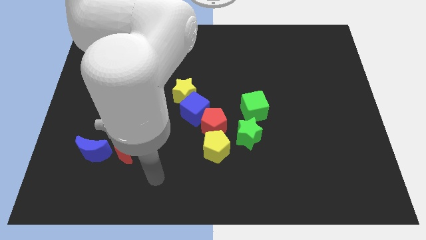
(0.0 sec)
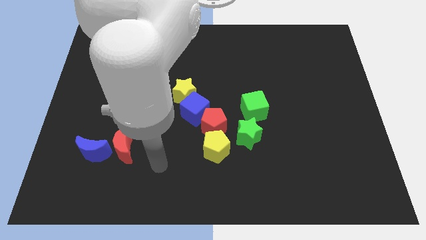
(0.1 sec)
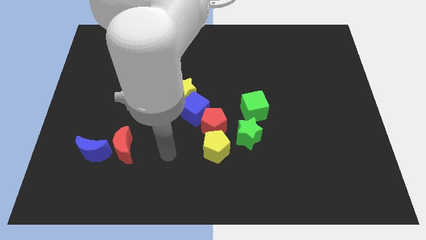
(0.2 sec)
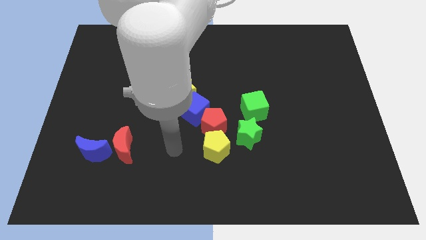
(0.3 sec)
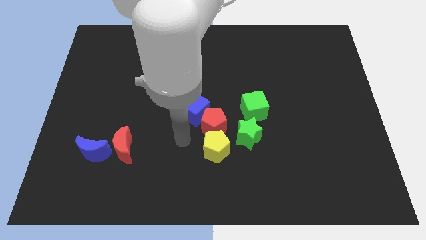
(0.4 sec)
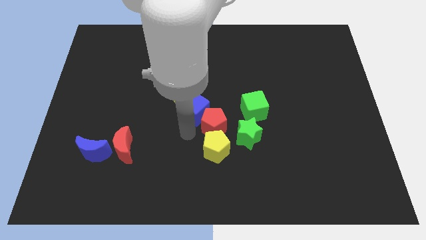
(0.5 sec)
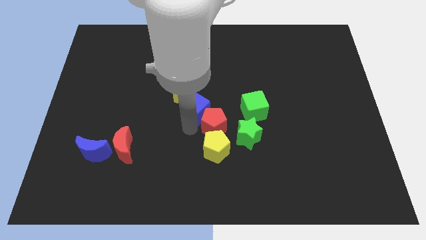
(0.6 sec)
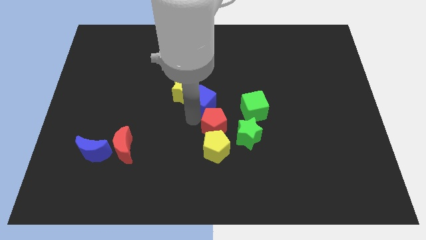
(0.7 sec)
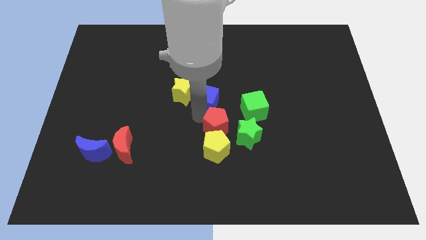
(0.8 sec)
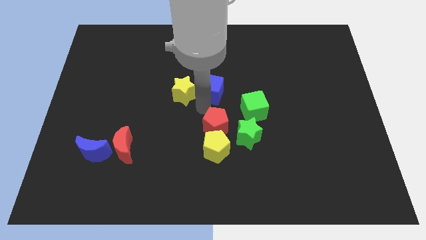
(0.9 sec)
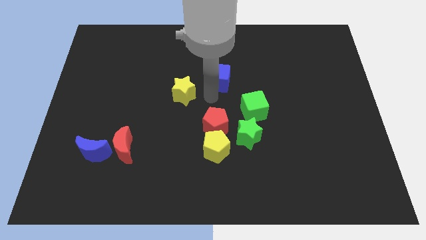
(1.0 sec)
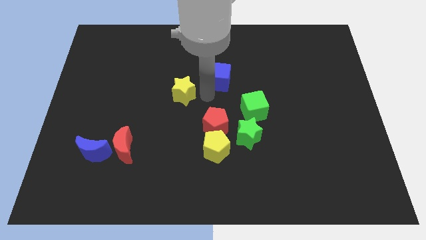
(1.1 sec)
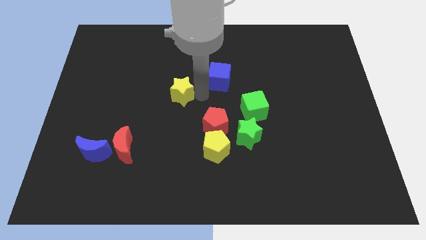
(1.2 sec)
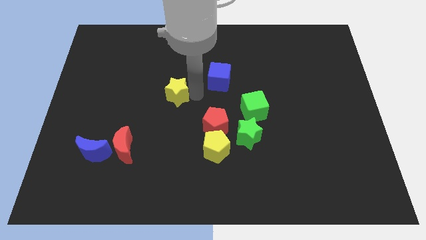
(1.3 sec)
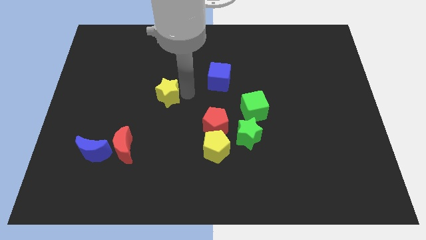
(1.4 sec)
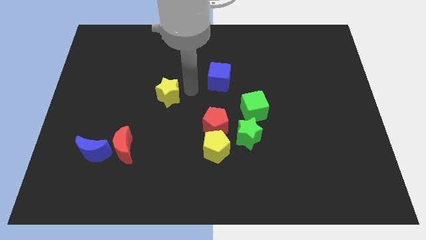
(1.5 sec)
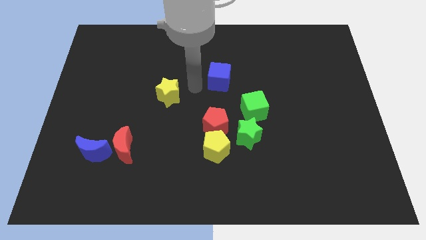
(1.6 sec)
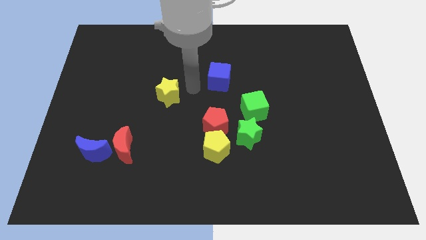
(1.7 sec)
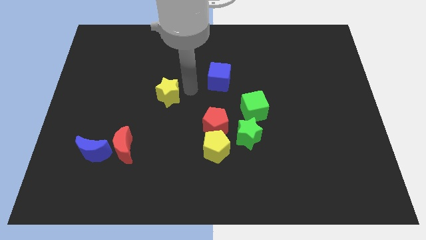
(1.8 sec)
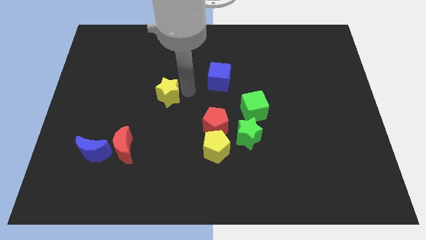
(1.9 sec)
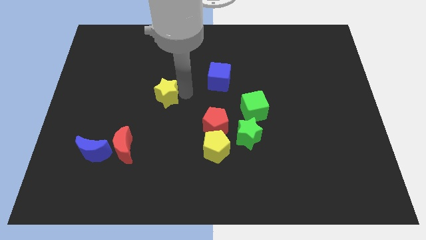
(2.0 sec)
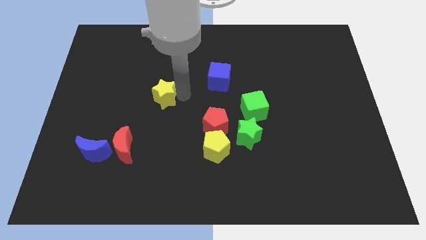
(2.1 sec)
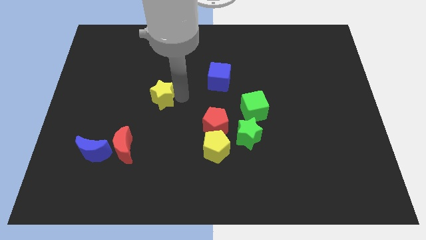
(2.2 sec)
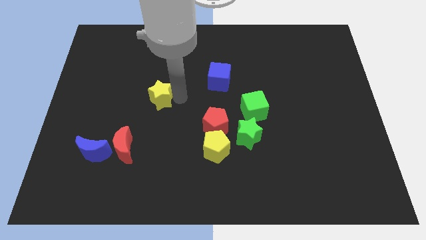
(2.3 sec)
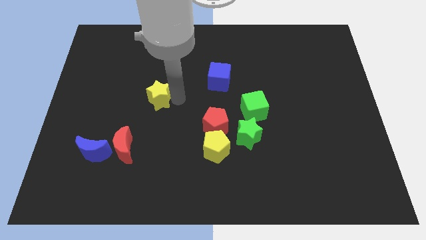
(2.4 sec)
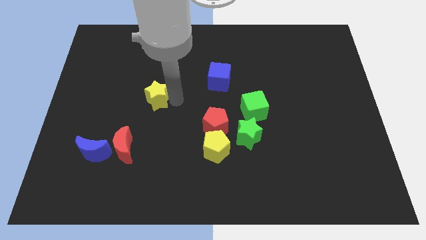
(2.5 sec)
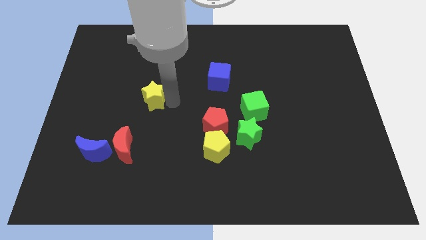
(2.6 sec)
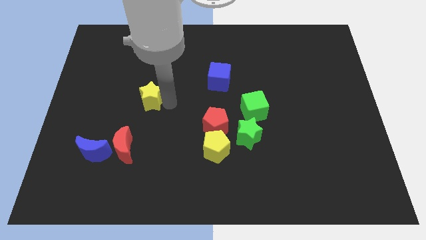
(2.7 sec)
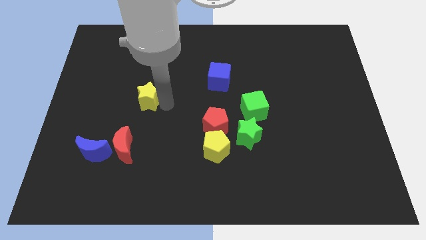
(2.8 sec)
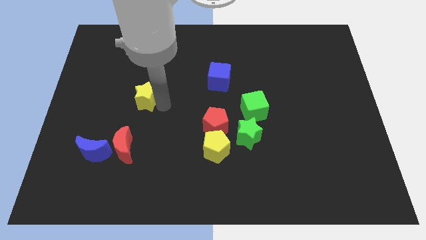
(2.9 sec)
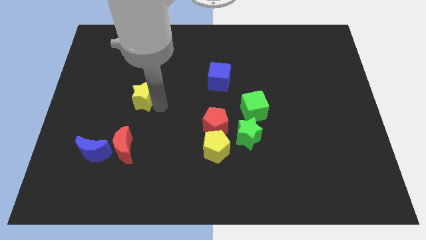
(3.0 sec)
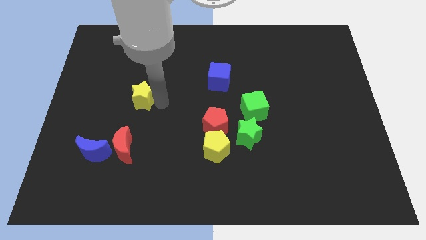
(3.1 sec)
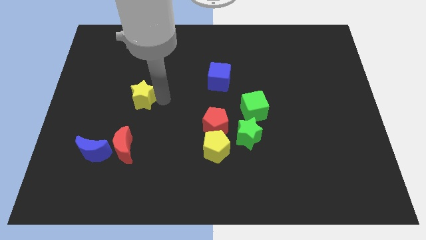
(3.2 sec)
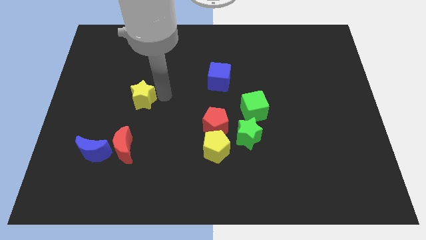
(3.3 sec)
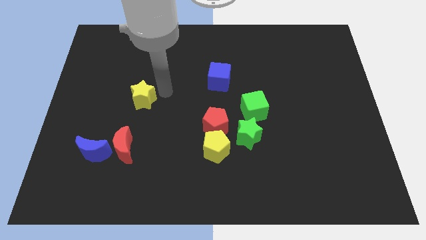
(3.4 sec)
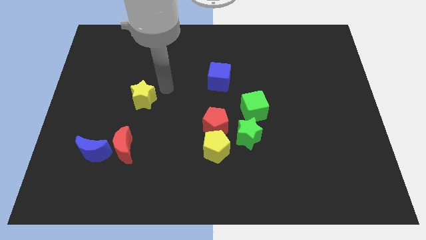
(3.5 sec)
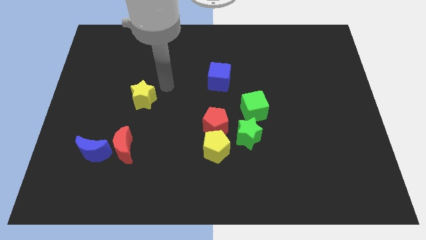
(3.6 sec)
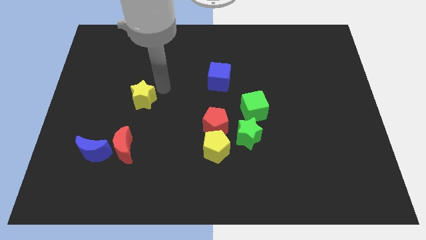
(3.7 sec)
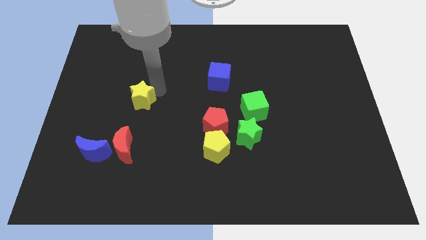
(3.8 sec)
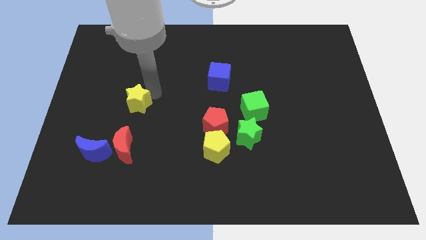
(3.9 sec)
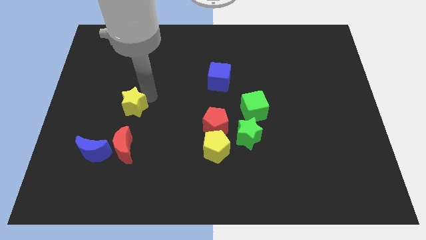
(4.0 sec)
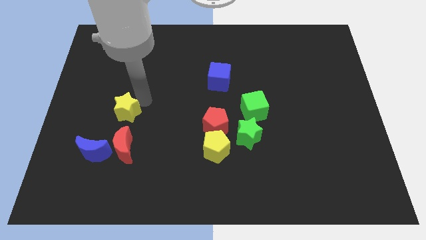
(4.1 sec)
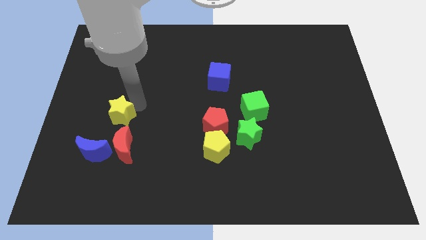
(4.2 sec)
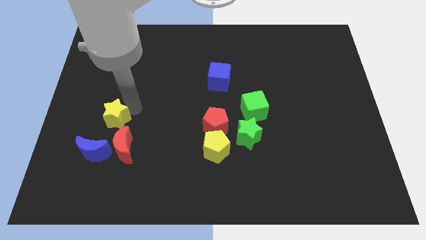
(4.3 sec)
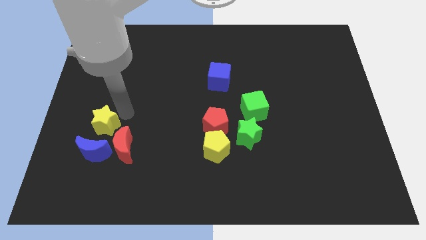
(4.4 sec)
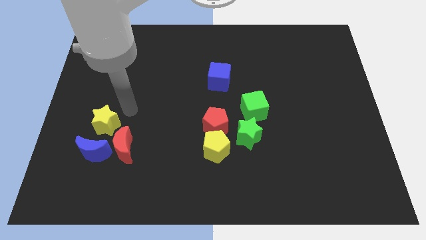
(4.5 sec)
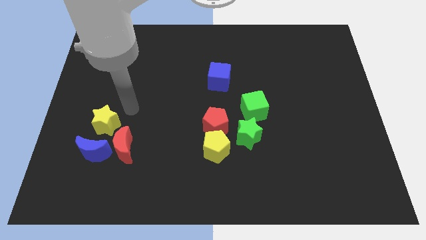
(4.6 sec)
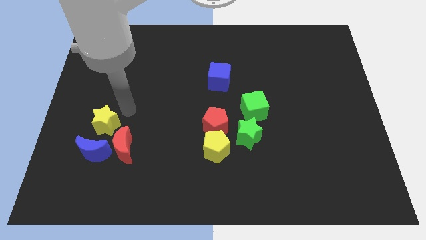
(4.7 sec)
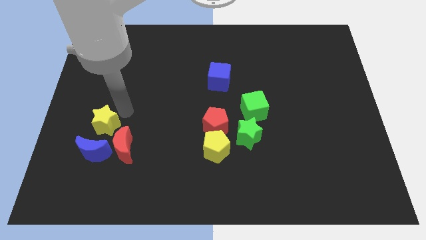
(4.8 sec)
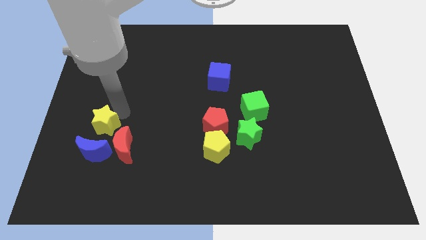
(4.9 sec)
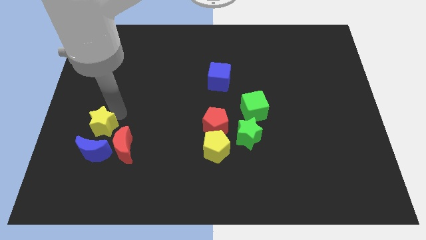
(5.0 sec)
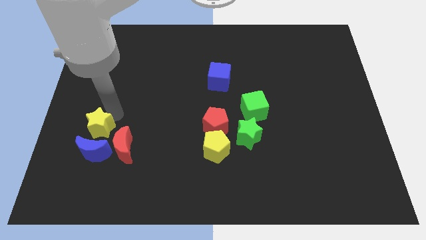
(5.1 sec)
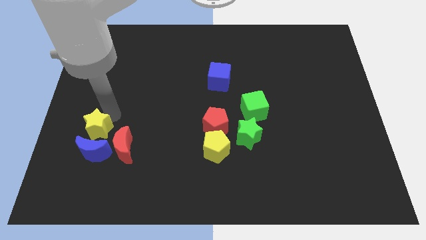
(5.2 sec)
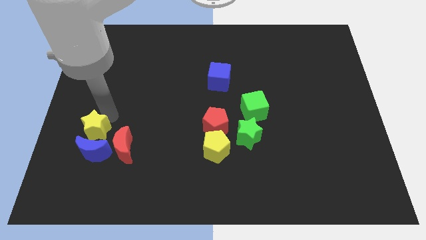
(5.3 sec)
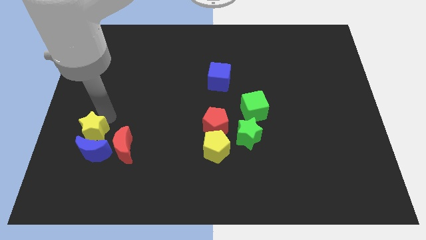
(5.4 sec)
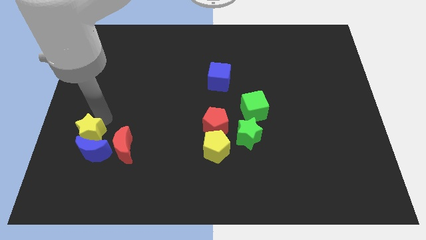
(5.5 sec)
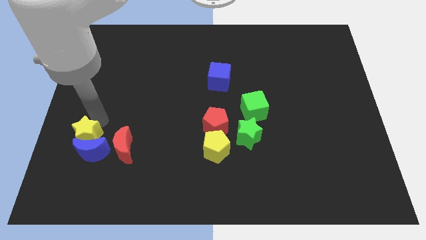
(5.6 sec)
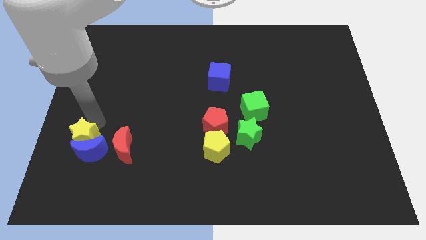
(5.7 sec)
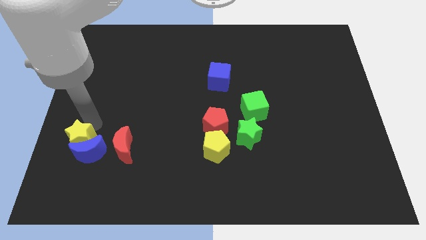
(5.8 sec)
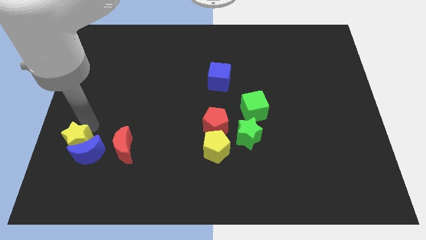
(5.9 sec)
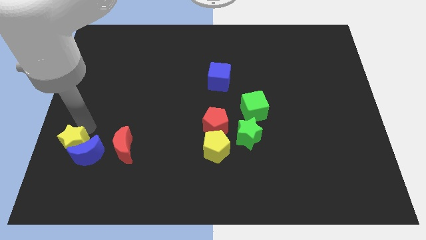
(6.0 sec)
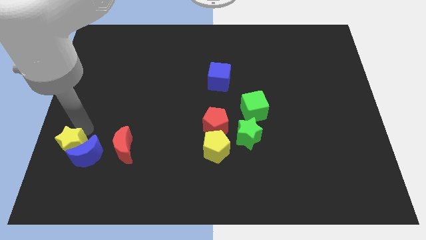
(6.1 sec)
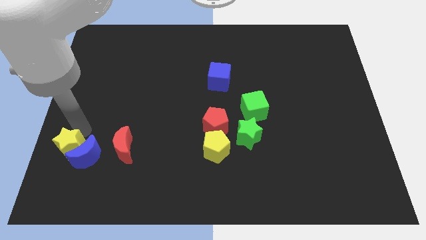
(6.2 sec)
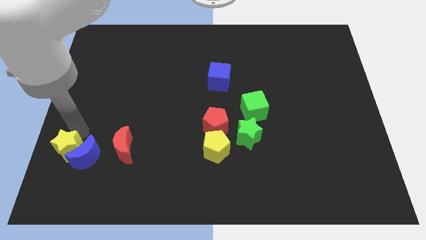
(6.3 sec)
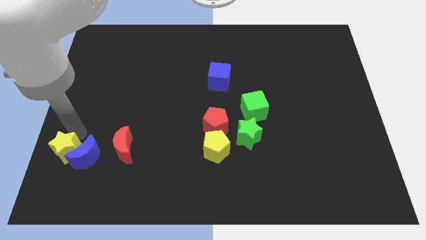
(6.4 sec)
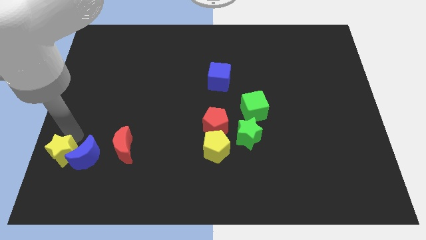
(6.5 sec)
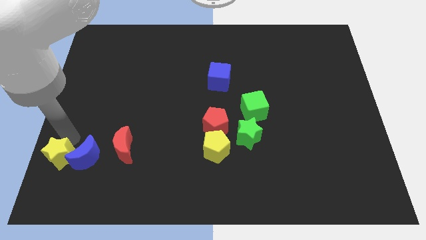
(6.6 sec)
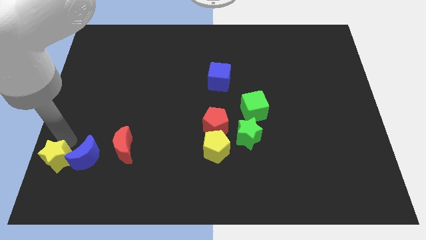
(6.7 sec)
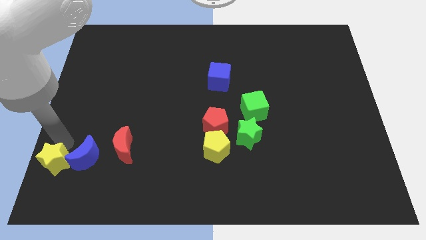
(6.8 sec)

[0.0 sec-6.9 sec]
move the yellow star to the bottom left of the board
